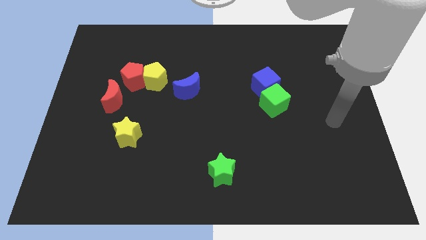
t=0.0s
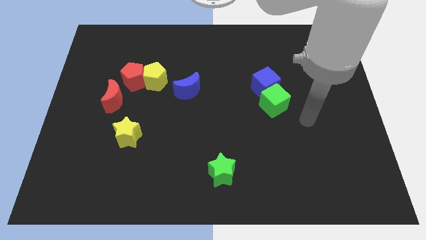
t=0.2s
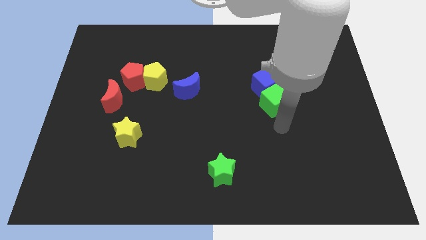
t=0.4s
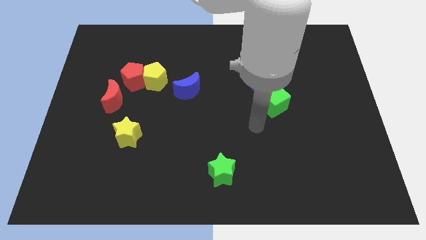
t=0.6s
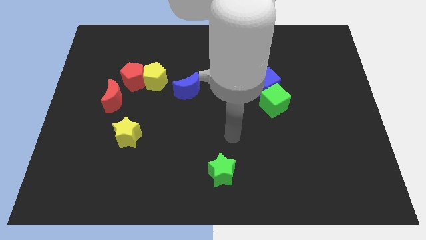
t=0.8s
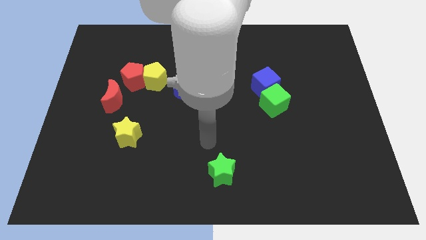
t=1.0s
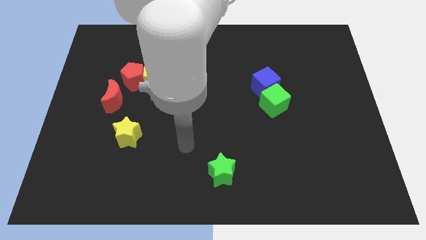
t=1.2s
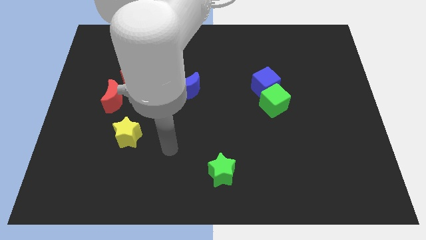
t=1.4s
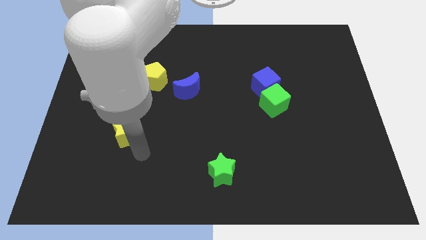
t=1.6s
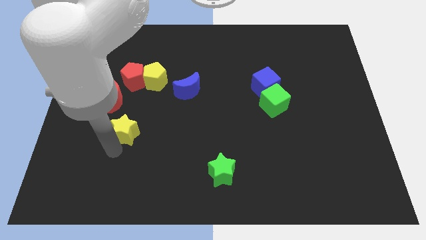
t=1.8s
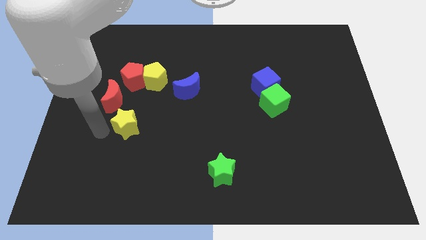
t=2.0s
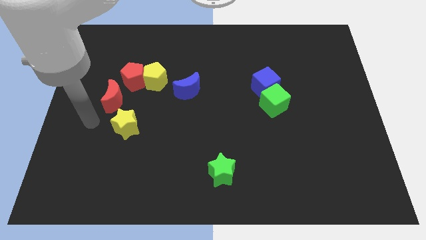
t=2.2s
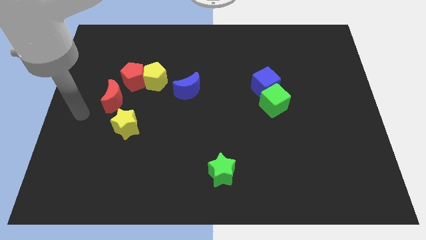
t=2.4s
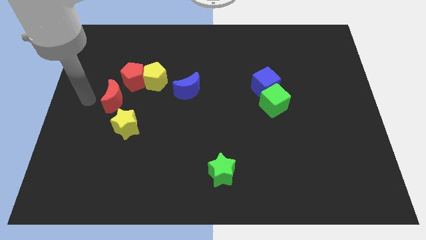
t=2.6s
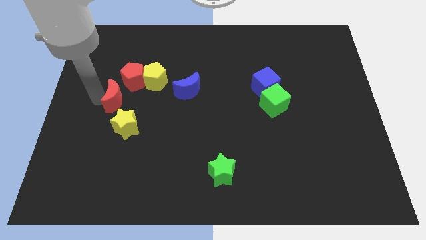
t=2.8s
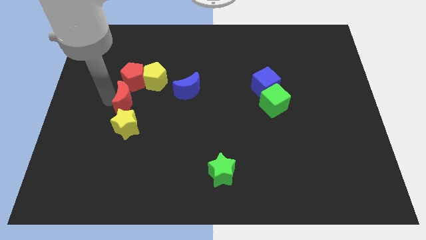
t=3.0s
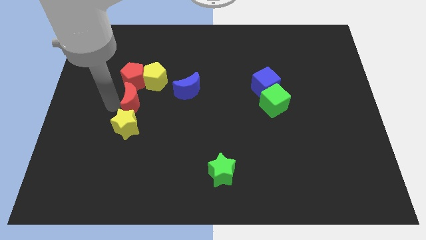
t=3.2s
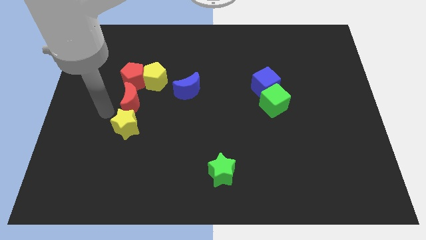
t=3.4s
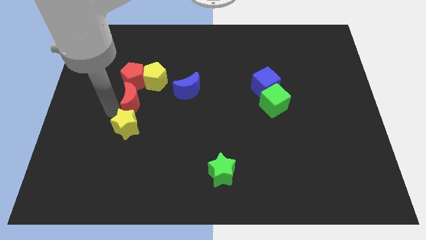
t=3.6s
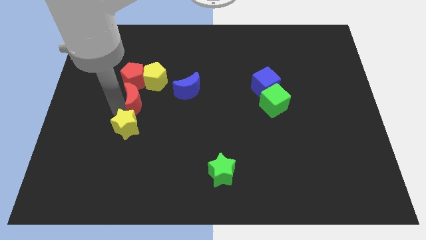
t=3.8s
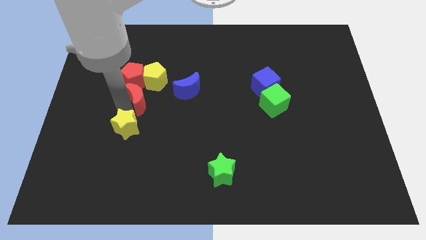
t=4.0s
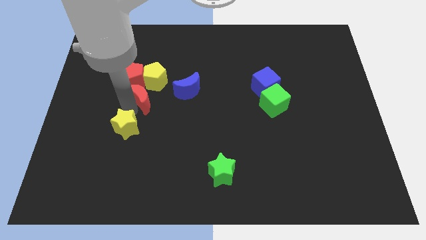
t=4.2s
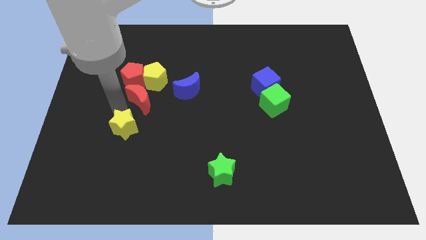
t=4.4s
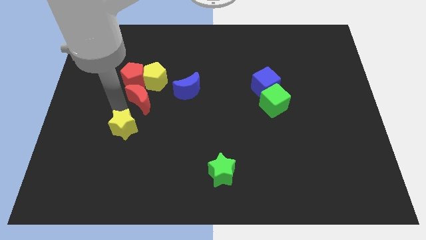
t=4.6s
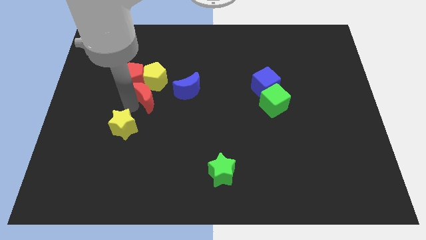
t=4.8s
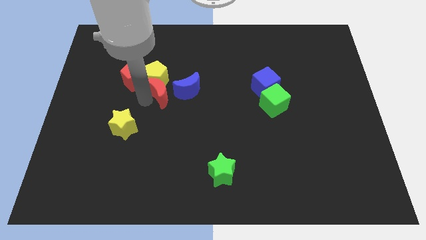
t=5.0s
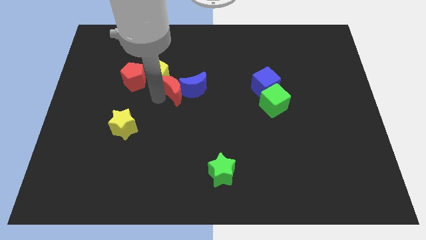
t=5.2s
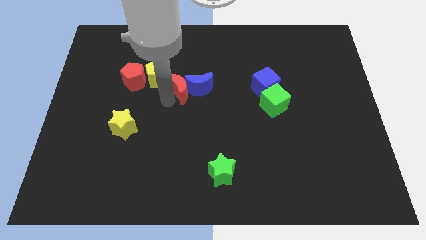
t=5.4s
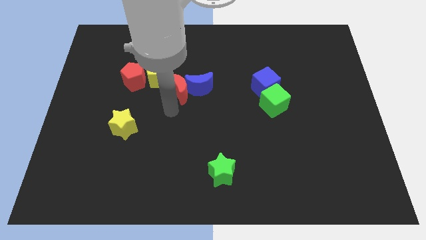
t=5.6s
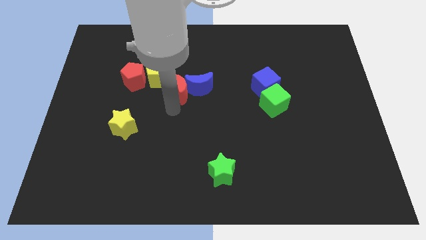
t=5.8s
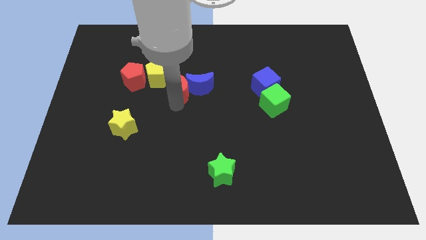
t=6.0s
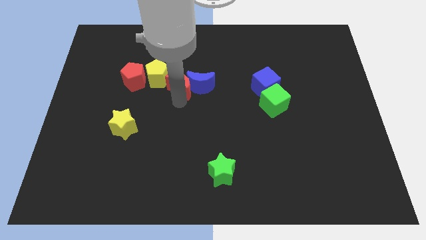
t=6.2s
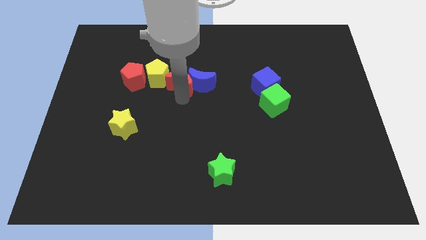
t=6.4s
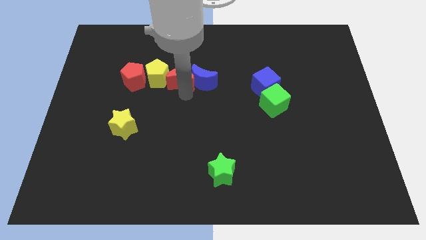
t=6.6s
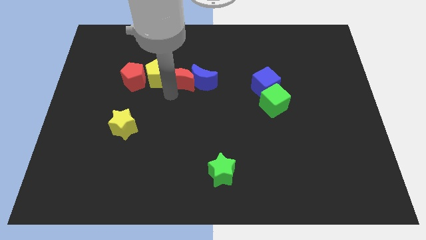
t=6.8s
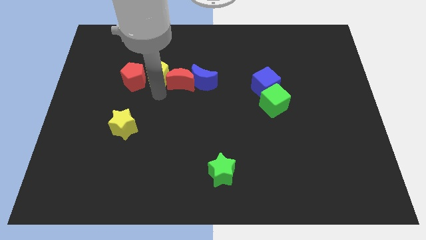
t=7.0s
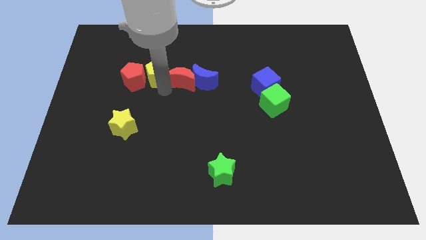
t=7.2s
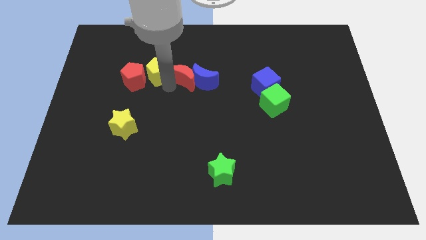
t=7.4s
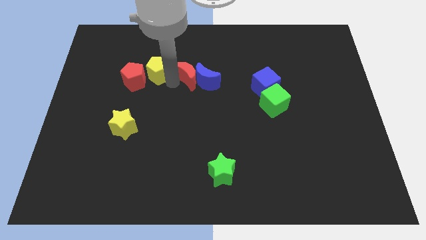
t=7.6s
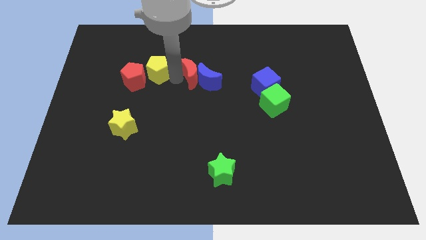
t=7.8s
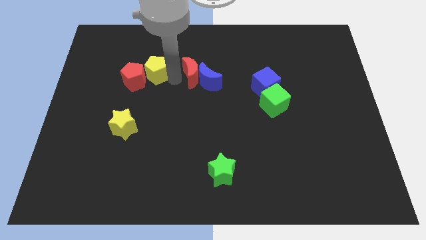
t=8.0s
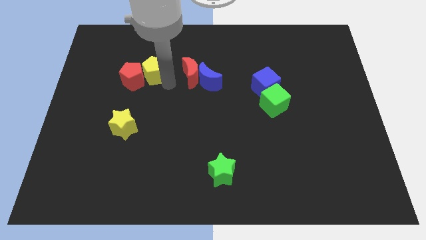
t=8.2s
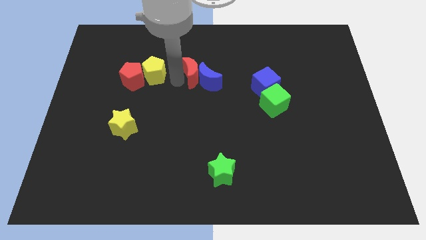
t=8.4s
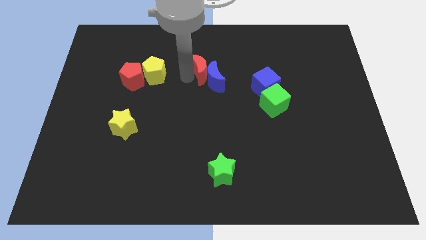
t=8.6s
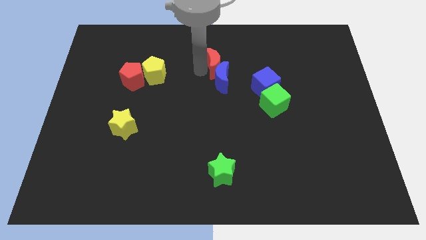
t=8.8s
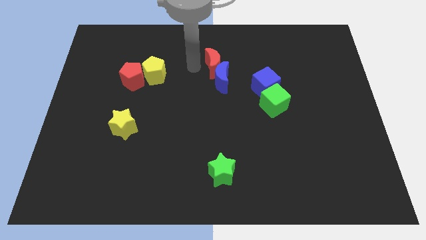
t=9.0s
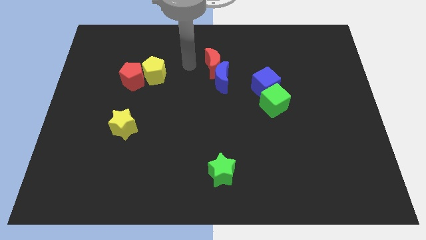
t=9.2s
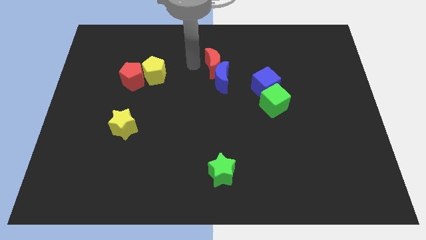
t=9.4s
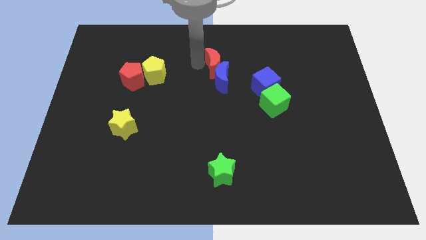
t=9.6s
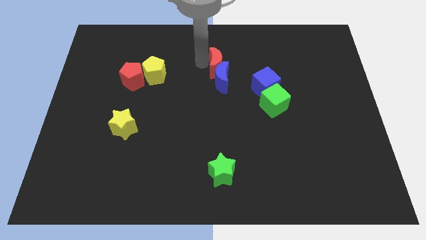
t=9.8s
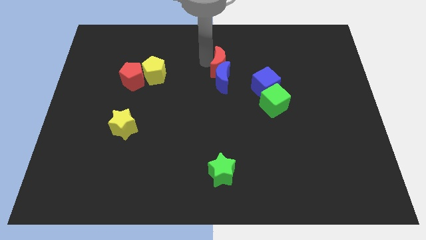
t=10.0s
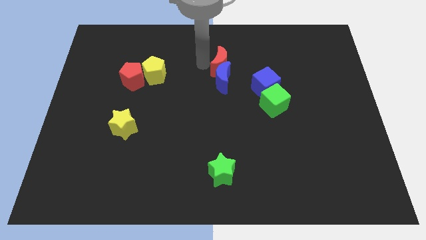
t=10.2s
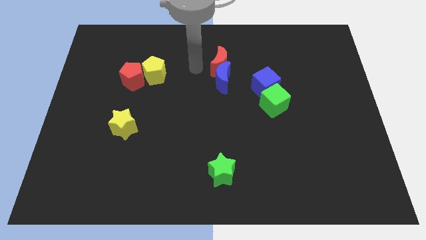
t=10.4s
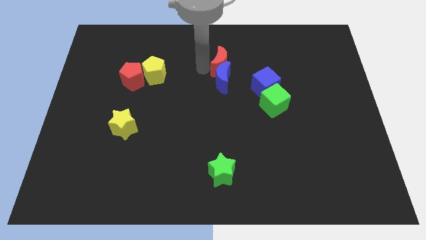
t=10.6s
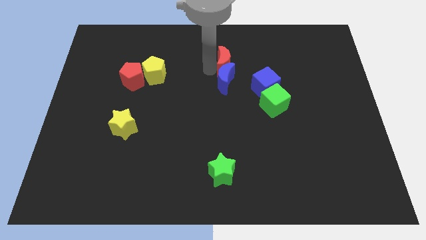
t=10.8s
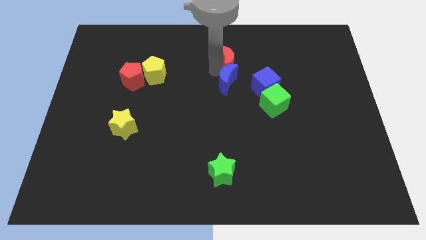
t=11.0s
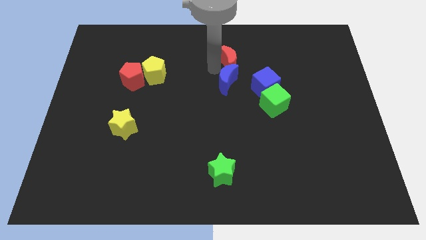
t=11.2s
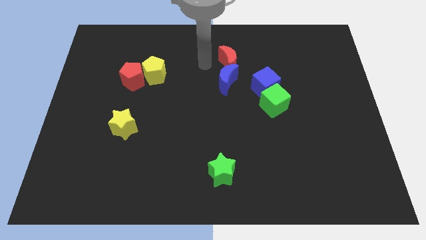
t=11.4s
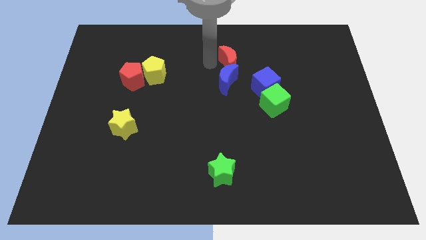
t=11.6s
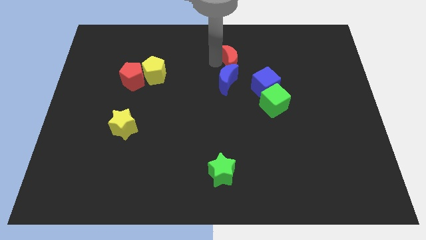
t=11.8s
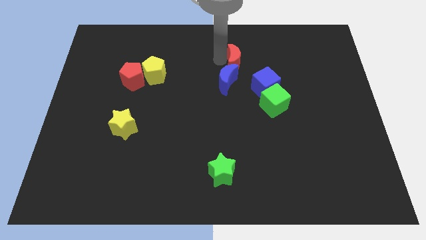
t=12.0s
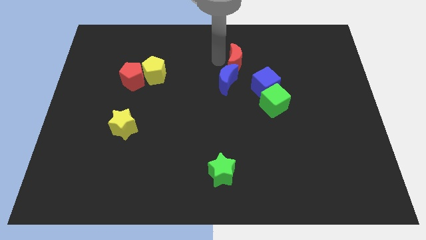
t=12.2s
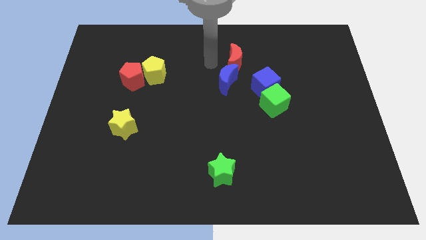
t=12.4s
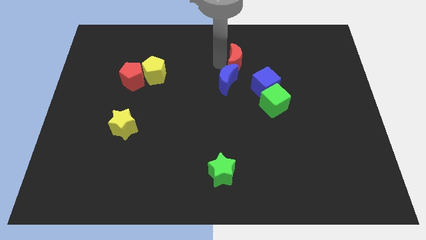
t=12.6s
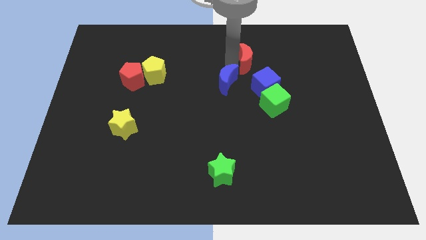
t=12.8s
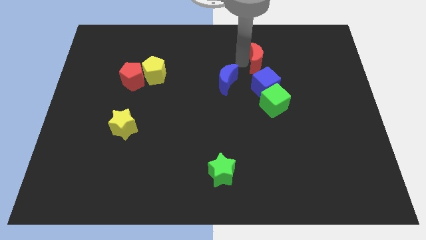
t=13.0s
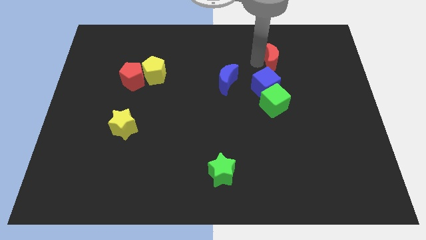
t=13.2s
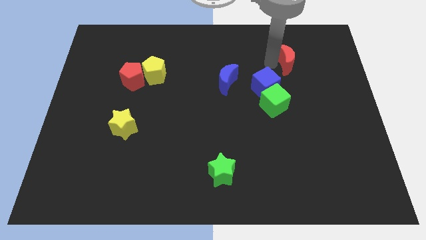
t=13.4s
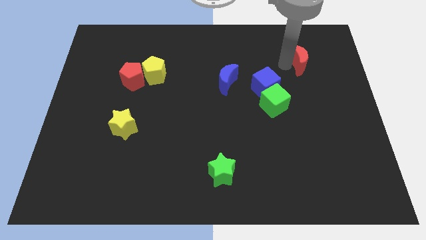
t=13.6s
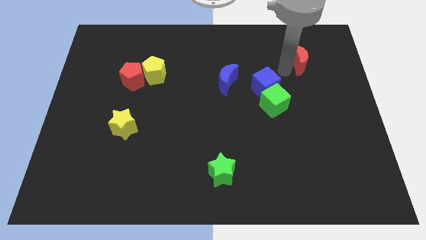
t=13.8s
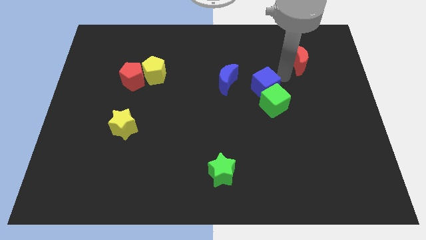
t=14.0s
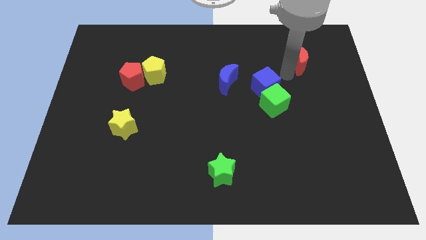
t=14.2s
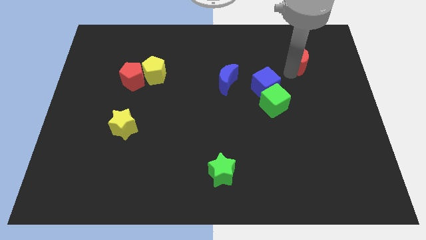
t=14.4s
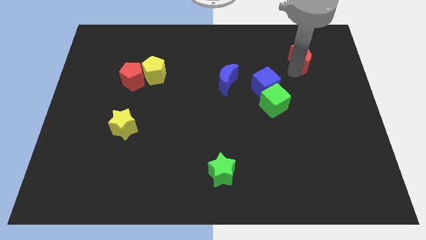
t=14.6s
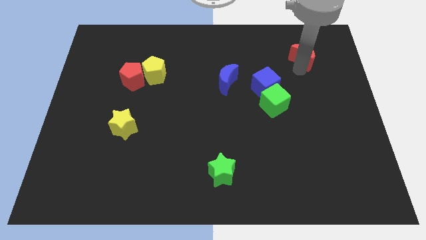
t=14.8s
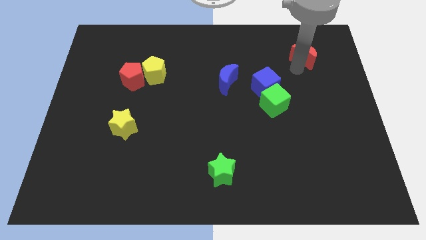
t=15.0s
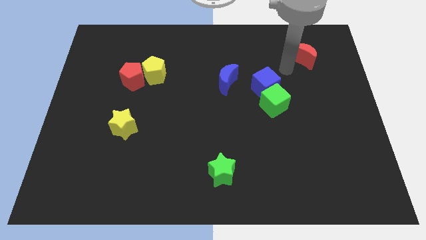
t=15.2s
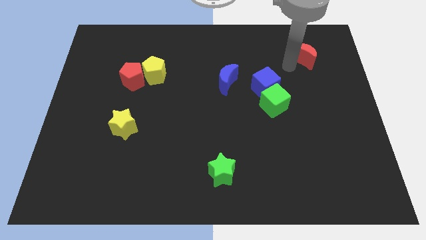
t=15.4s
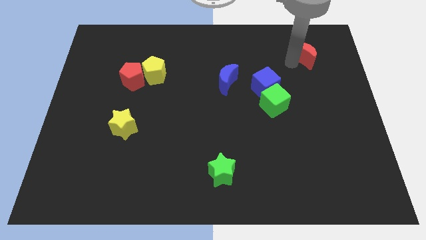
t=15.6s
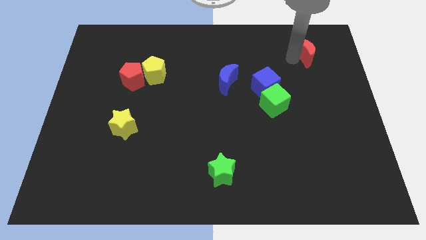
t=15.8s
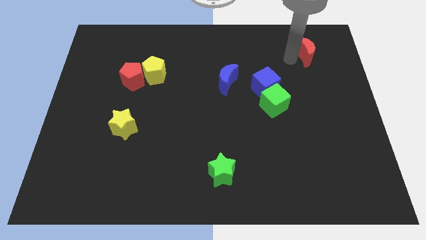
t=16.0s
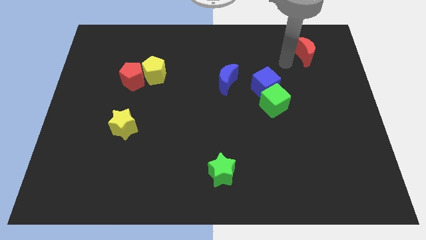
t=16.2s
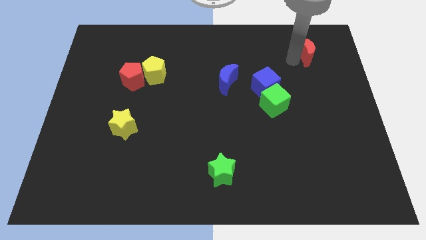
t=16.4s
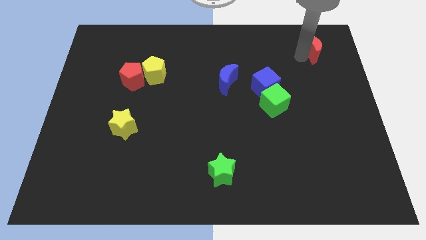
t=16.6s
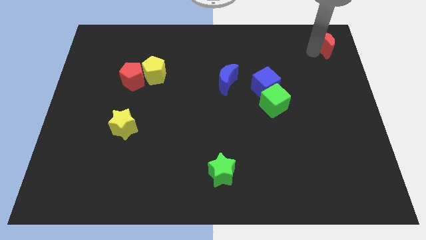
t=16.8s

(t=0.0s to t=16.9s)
move the red moon to the upper right corner
